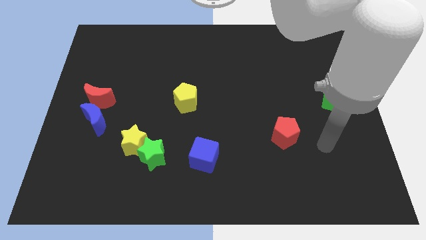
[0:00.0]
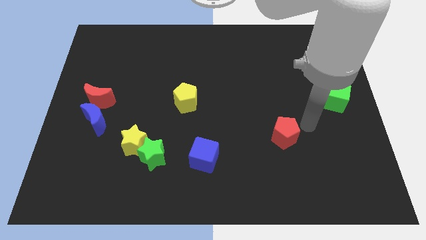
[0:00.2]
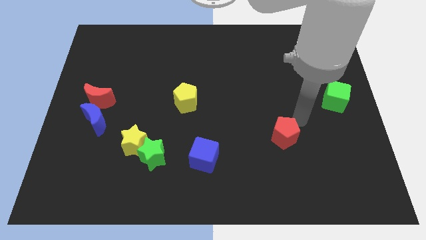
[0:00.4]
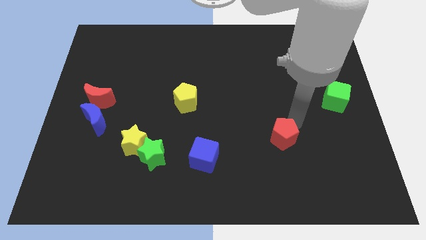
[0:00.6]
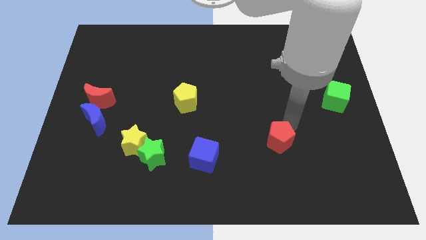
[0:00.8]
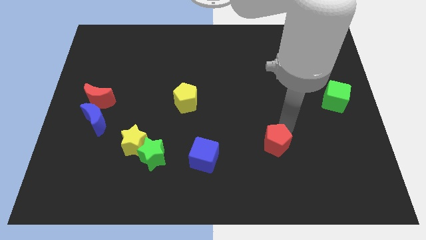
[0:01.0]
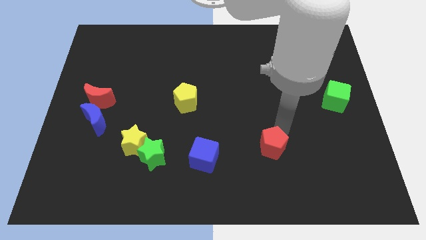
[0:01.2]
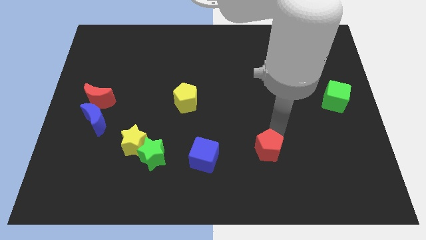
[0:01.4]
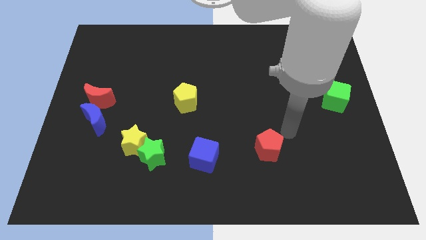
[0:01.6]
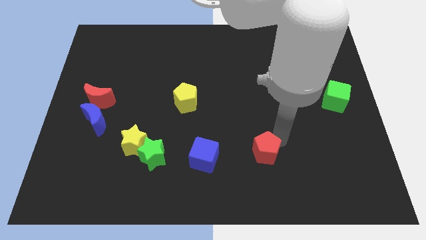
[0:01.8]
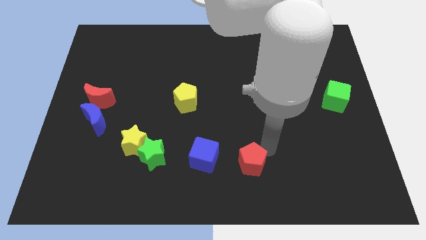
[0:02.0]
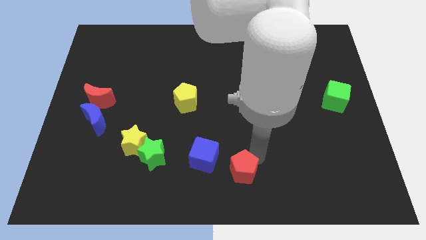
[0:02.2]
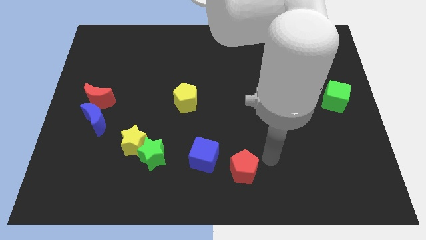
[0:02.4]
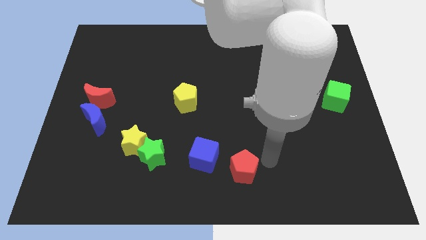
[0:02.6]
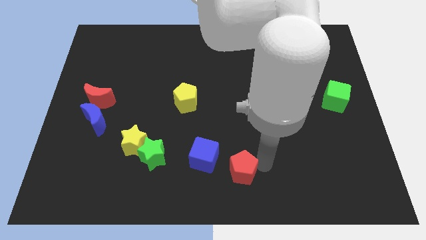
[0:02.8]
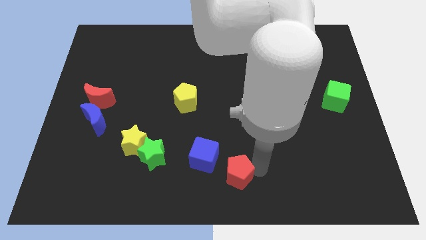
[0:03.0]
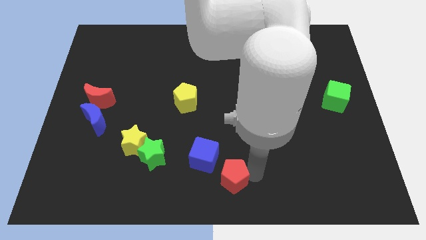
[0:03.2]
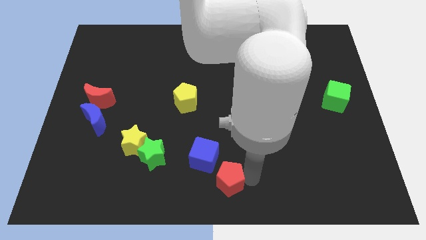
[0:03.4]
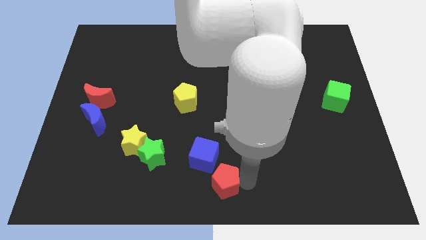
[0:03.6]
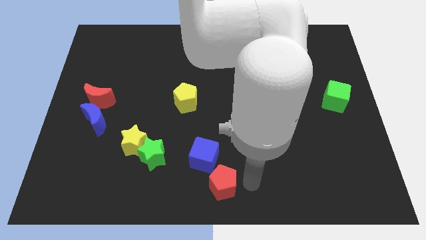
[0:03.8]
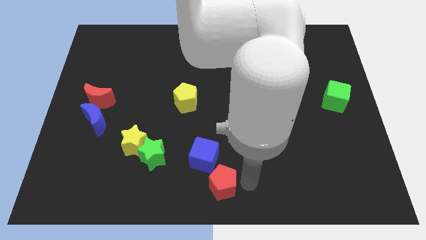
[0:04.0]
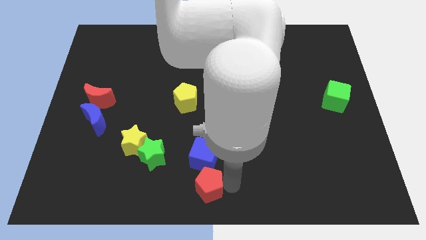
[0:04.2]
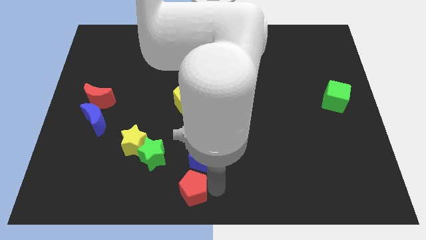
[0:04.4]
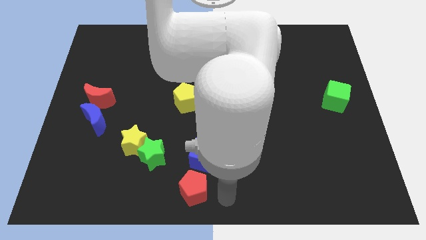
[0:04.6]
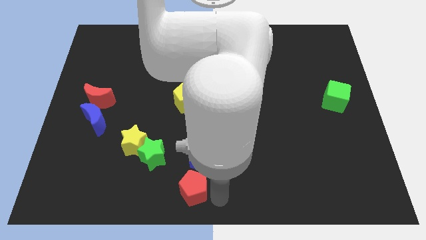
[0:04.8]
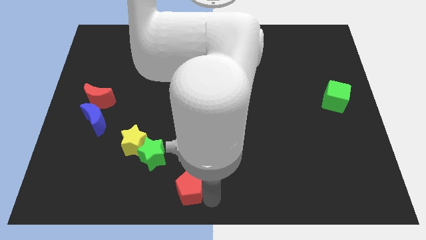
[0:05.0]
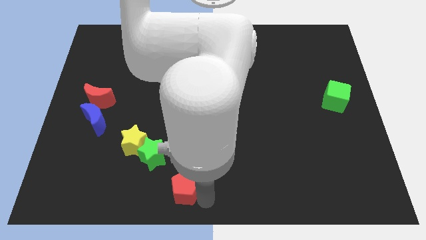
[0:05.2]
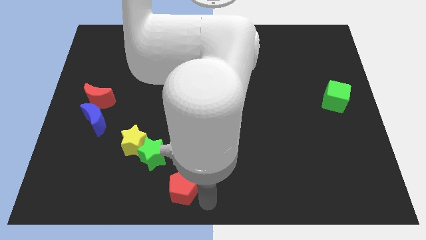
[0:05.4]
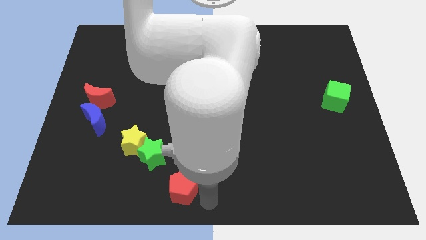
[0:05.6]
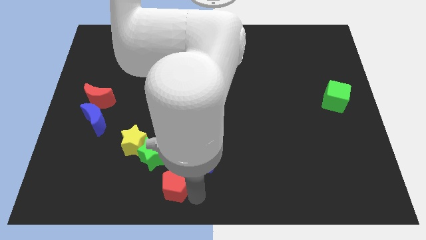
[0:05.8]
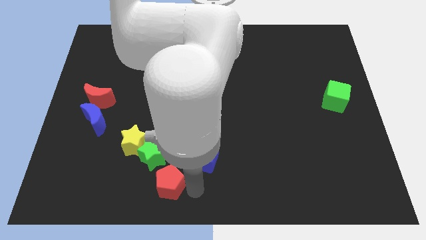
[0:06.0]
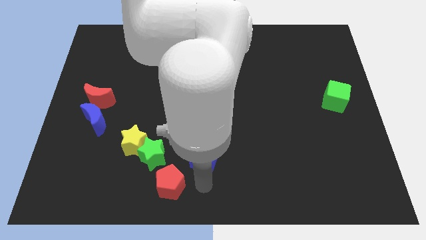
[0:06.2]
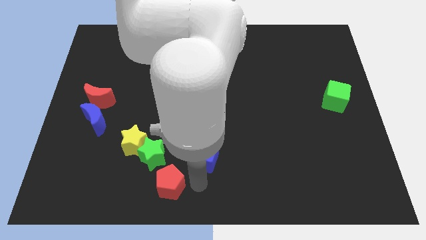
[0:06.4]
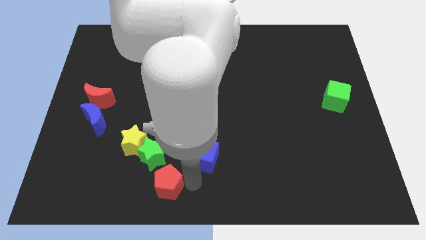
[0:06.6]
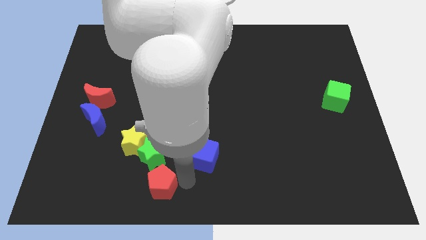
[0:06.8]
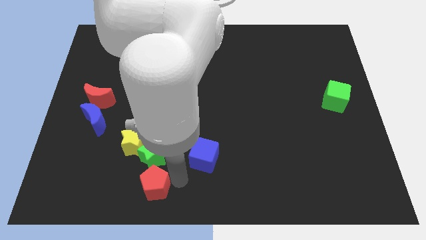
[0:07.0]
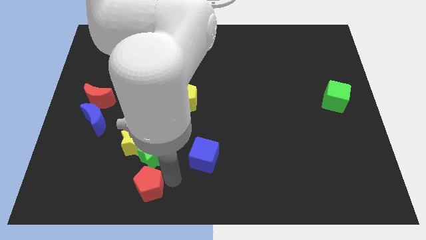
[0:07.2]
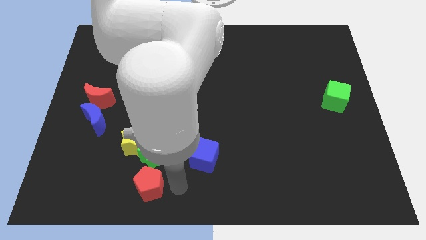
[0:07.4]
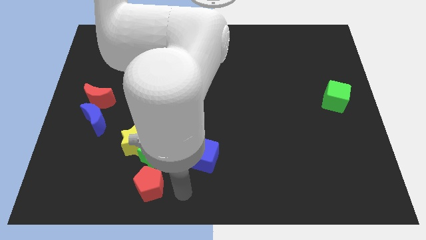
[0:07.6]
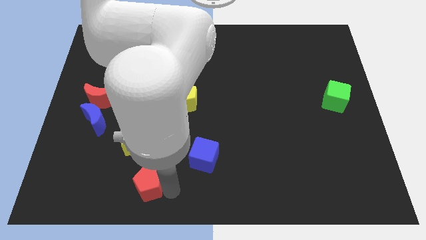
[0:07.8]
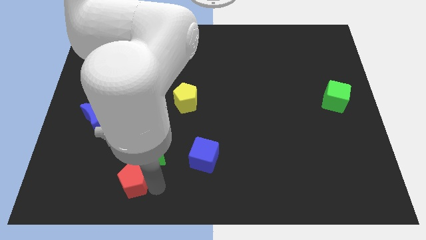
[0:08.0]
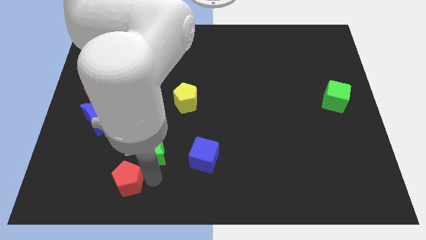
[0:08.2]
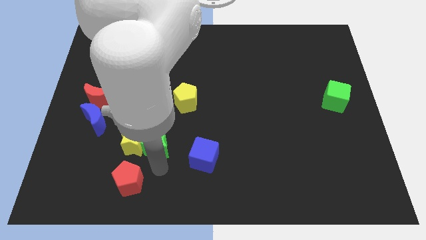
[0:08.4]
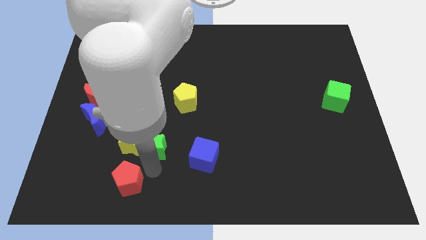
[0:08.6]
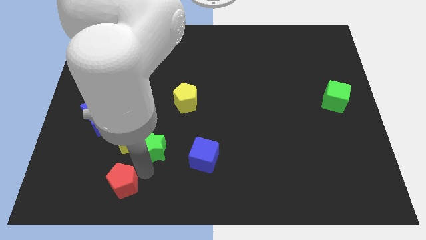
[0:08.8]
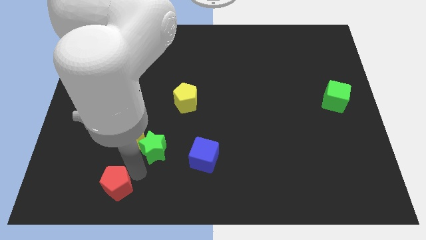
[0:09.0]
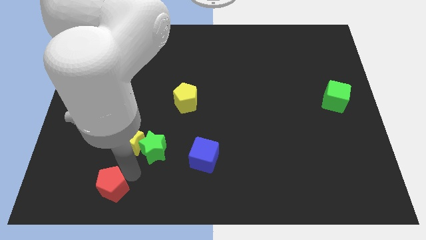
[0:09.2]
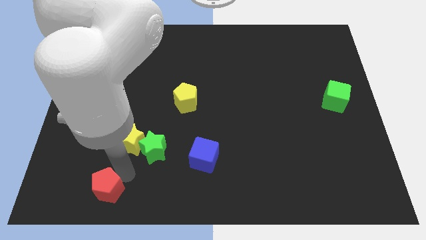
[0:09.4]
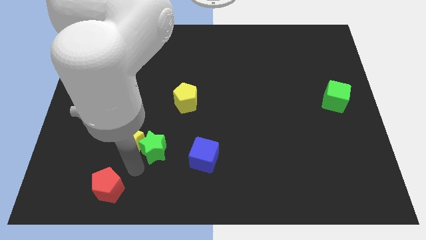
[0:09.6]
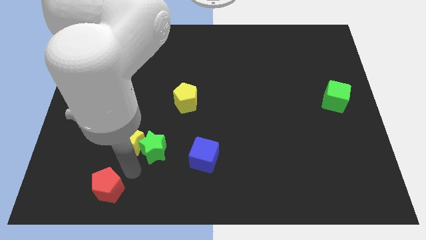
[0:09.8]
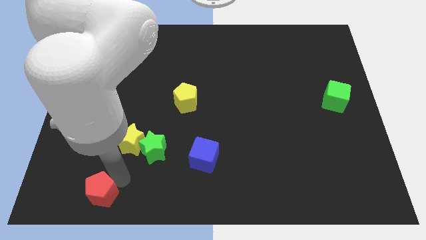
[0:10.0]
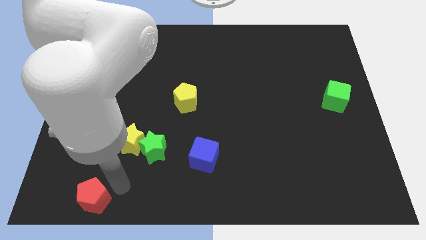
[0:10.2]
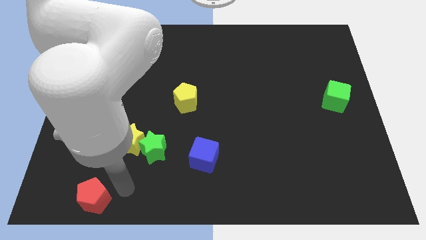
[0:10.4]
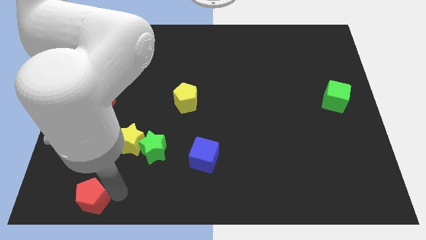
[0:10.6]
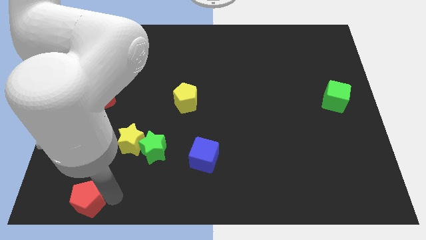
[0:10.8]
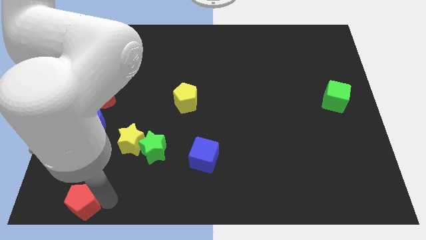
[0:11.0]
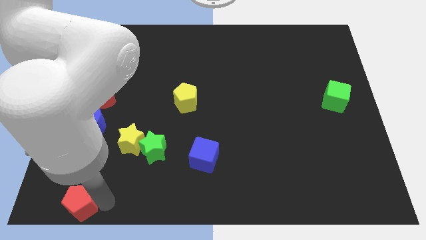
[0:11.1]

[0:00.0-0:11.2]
put the red pentagon to the bottom left

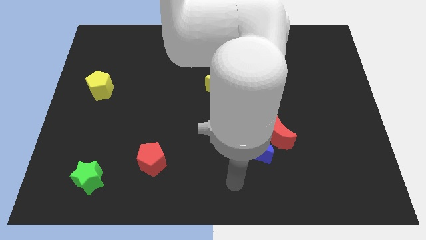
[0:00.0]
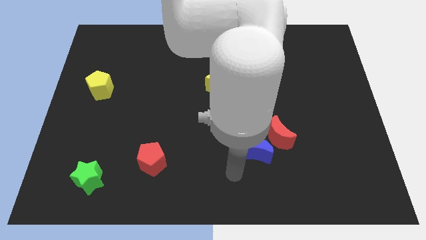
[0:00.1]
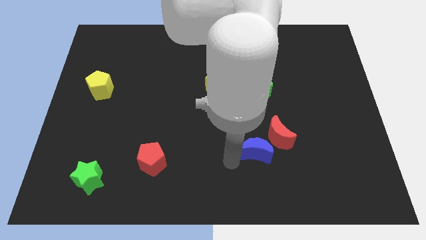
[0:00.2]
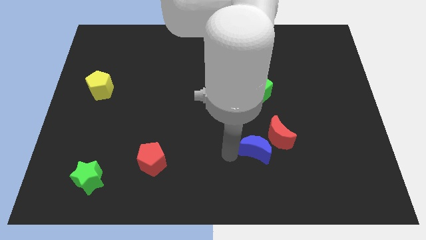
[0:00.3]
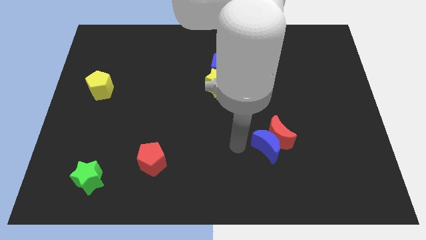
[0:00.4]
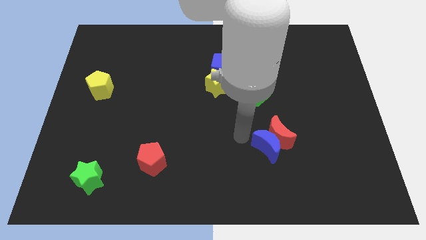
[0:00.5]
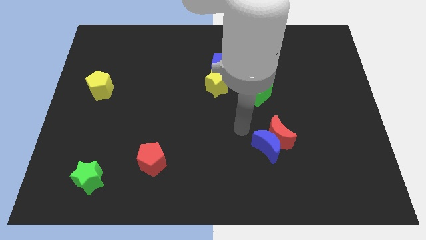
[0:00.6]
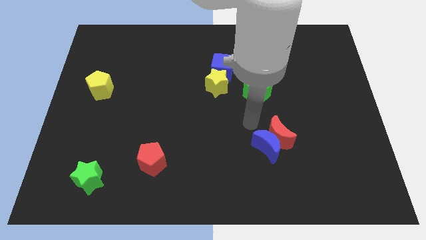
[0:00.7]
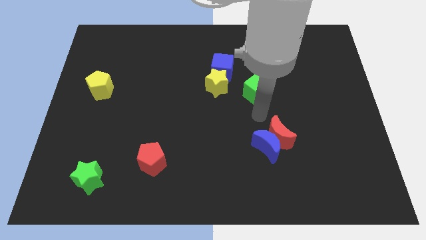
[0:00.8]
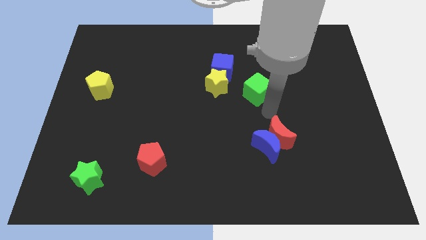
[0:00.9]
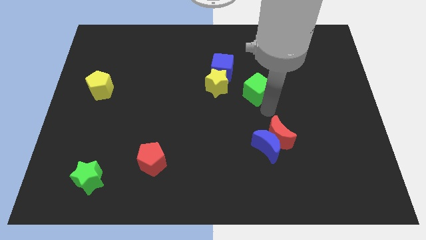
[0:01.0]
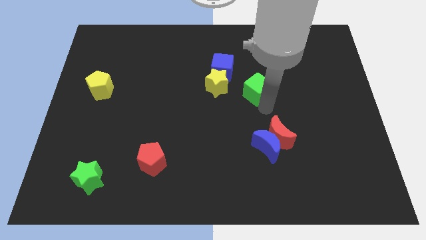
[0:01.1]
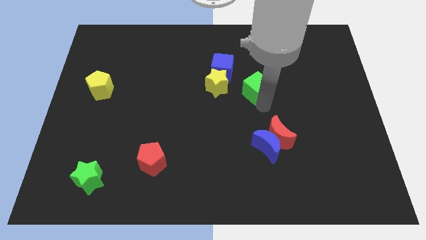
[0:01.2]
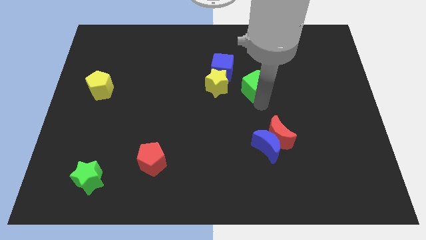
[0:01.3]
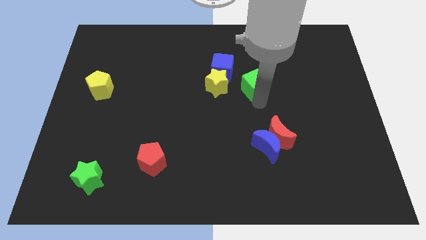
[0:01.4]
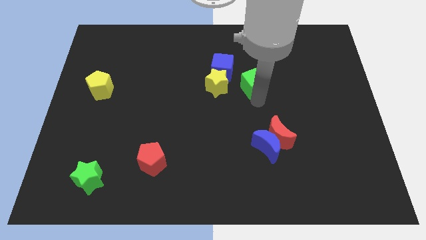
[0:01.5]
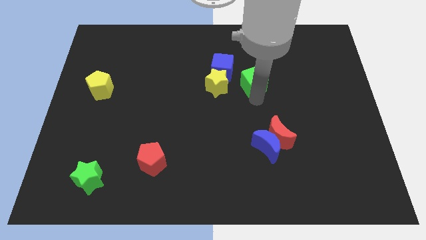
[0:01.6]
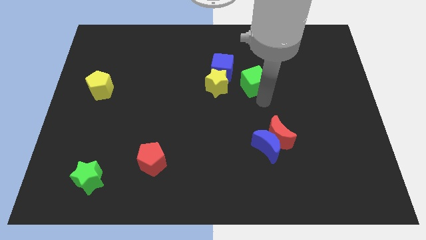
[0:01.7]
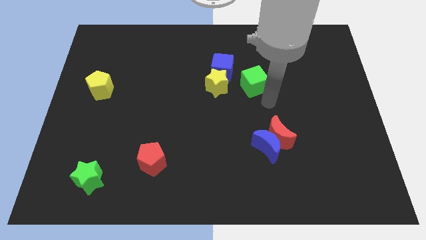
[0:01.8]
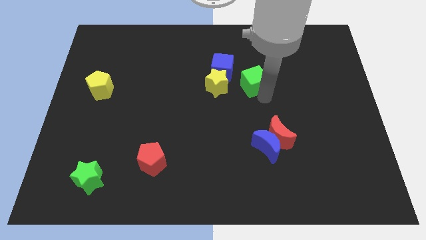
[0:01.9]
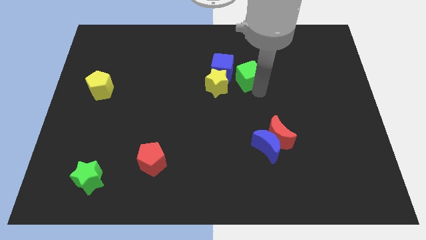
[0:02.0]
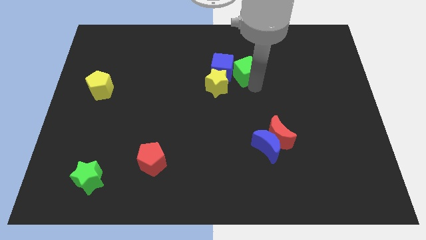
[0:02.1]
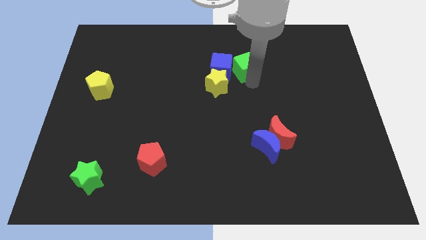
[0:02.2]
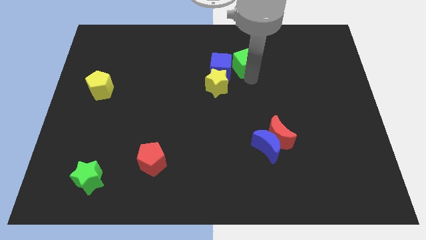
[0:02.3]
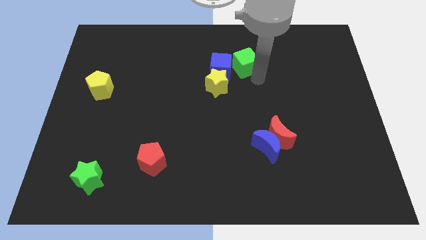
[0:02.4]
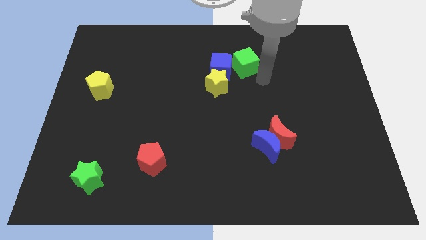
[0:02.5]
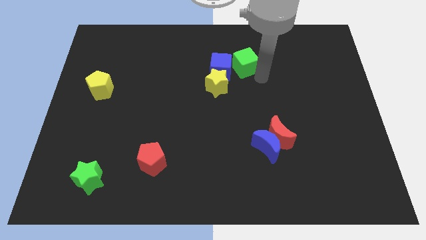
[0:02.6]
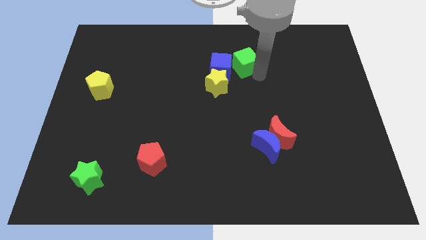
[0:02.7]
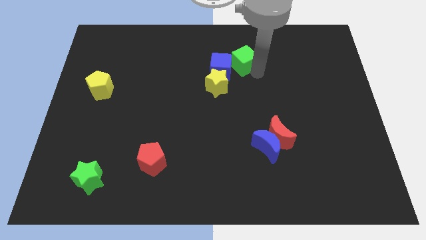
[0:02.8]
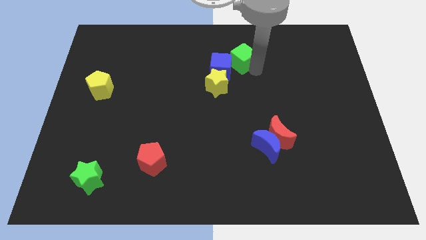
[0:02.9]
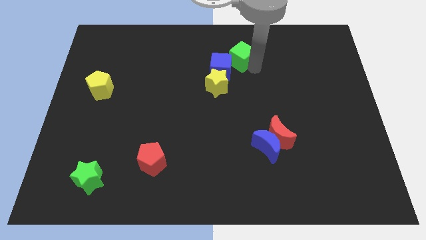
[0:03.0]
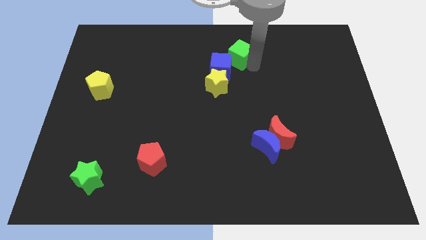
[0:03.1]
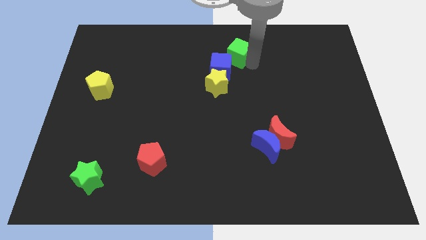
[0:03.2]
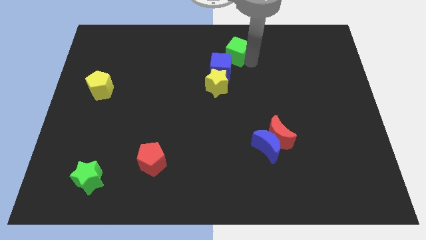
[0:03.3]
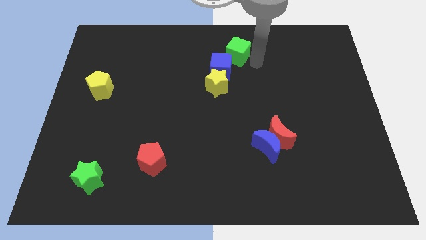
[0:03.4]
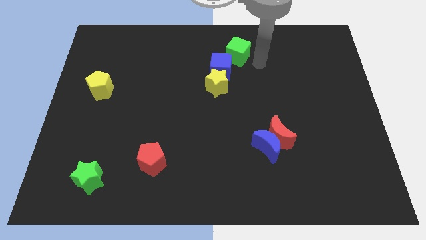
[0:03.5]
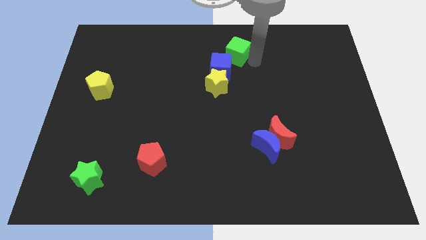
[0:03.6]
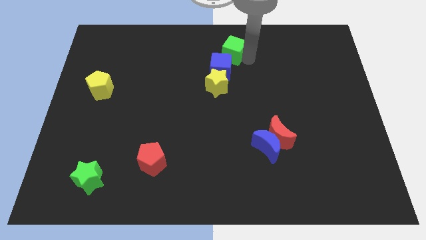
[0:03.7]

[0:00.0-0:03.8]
slide the green cube to the top
